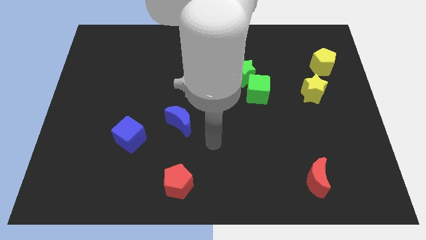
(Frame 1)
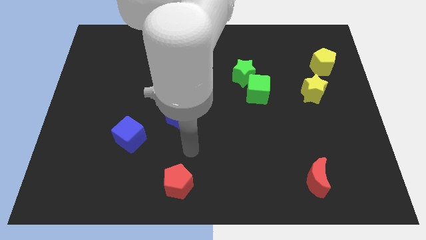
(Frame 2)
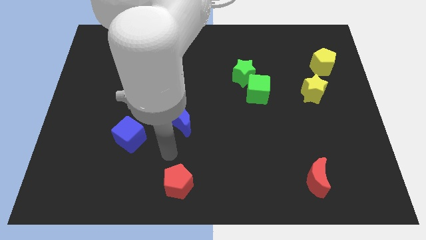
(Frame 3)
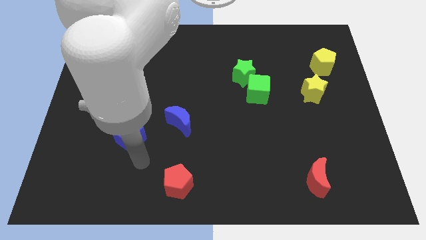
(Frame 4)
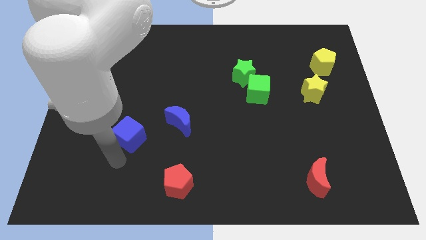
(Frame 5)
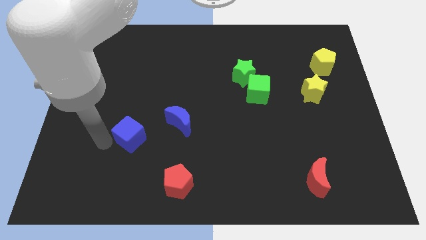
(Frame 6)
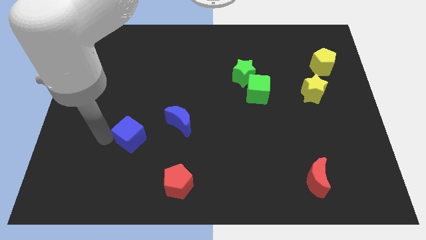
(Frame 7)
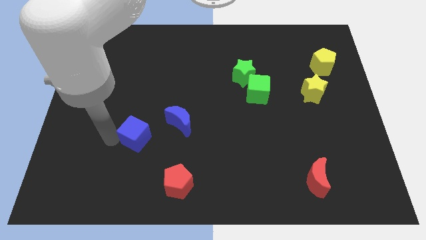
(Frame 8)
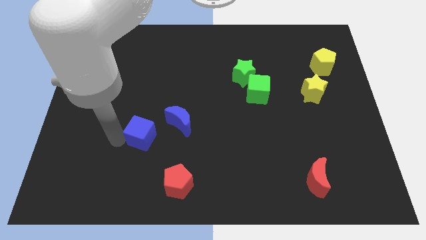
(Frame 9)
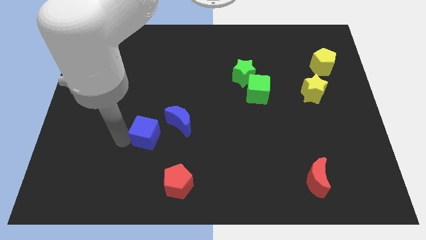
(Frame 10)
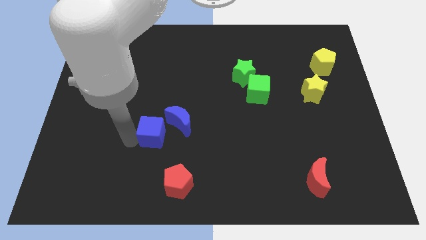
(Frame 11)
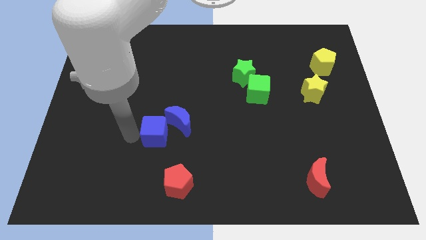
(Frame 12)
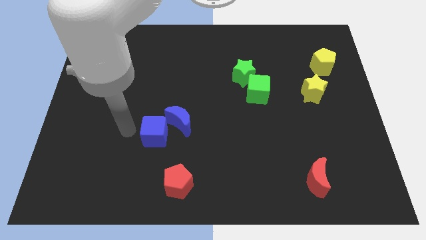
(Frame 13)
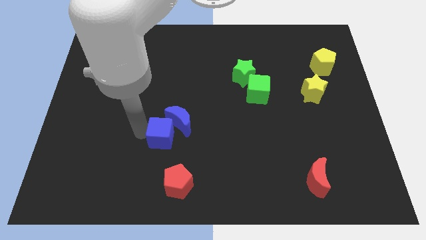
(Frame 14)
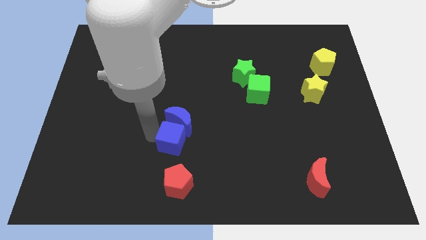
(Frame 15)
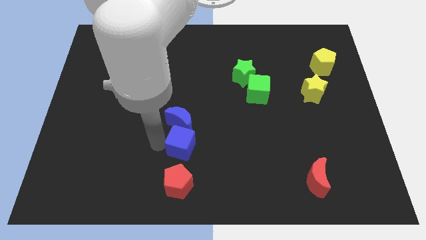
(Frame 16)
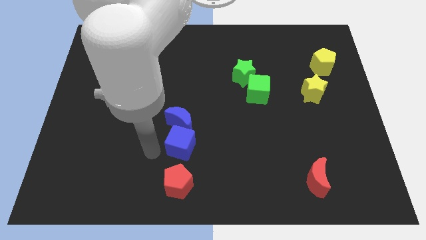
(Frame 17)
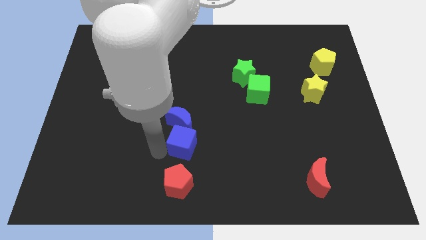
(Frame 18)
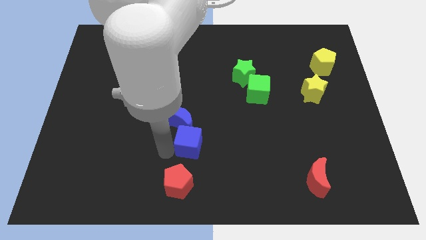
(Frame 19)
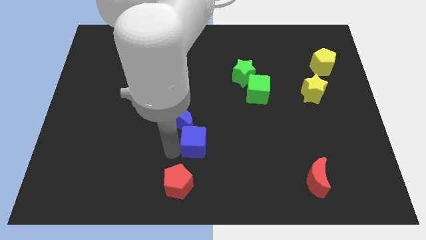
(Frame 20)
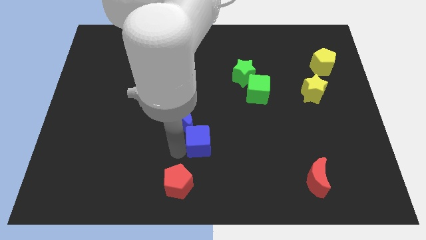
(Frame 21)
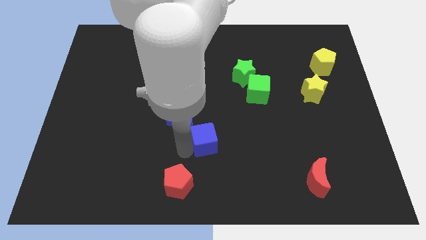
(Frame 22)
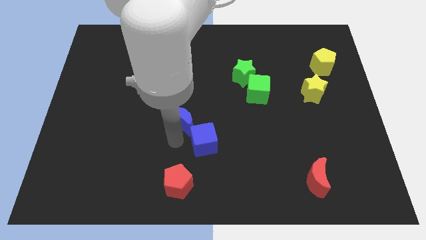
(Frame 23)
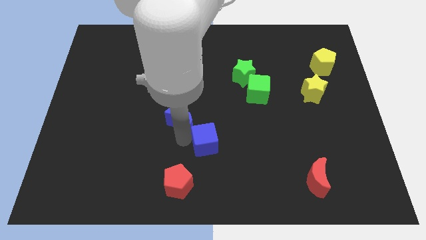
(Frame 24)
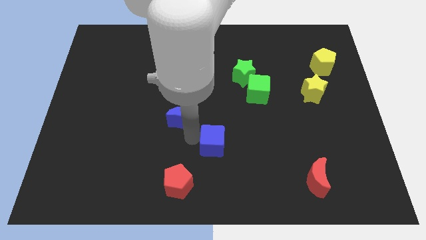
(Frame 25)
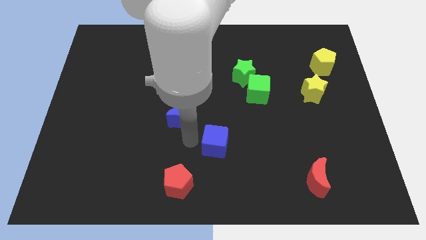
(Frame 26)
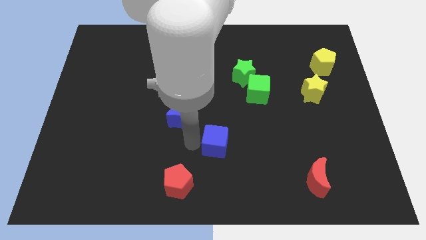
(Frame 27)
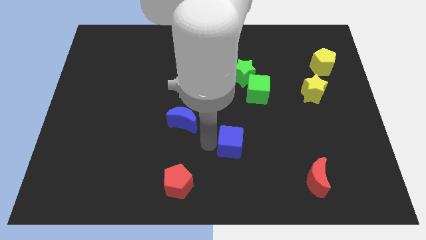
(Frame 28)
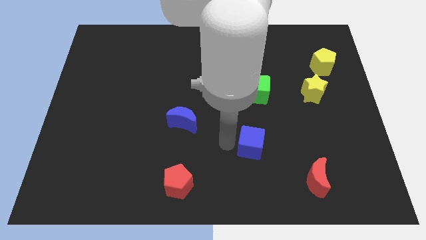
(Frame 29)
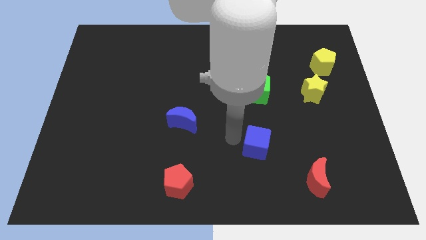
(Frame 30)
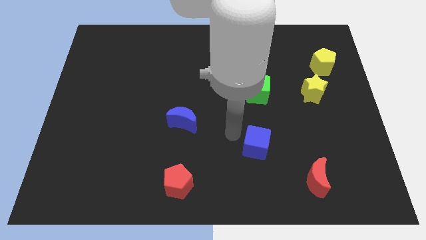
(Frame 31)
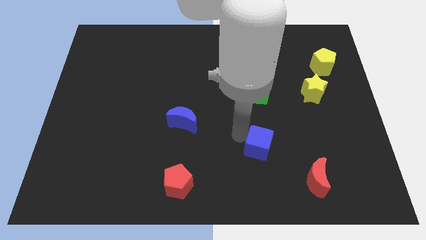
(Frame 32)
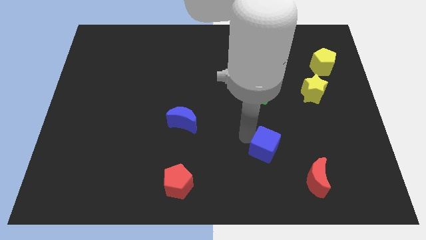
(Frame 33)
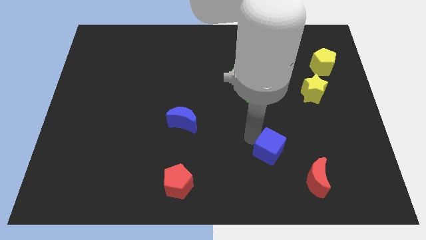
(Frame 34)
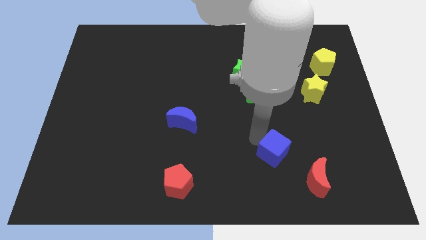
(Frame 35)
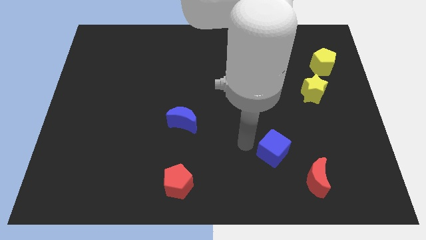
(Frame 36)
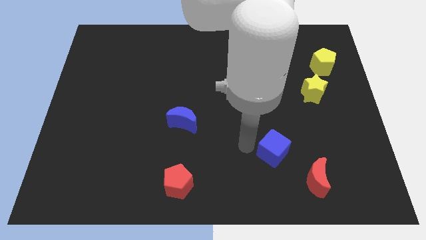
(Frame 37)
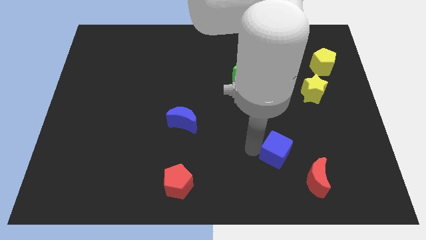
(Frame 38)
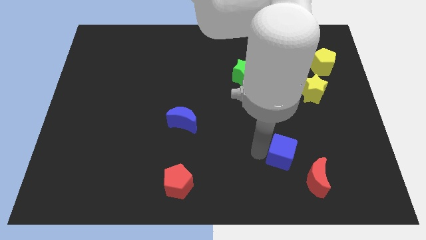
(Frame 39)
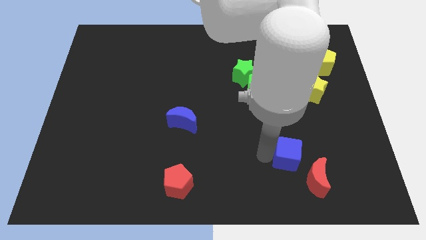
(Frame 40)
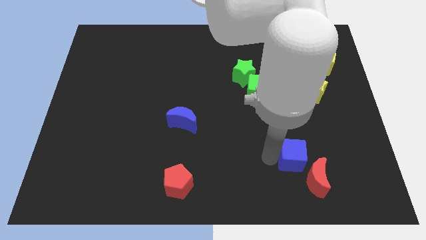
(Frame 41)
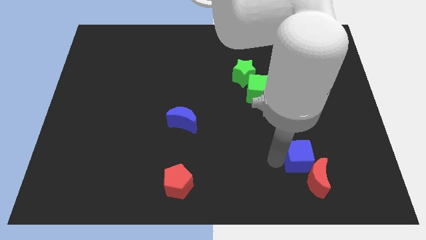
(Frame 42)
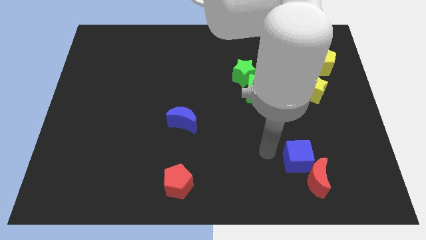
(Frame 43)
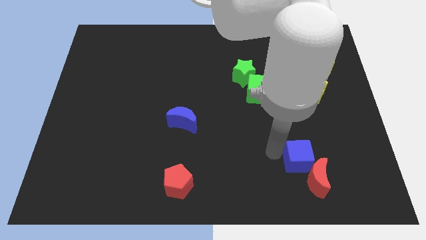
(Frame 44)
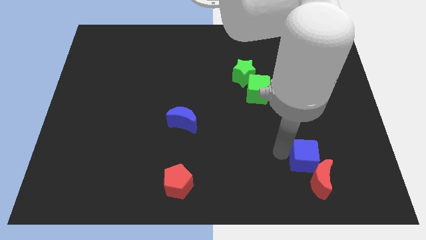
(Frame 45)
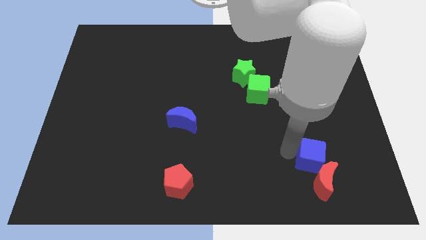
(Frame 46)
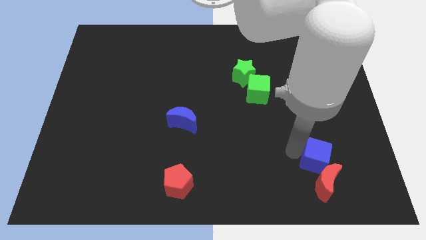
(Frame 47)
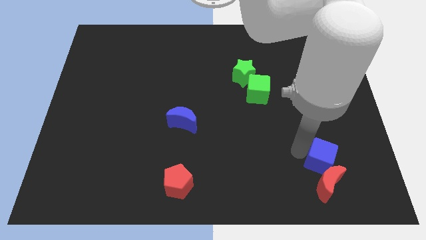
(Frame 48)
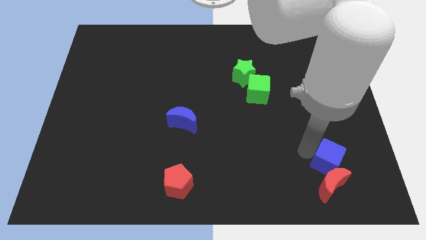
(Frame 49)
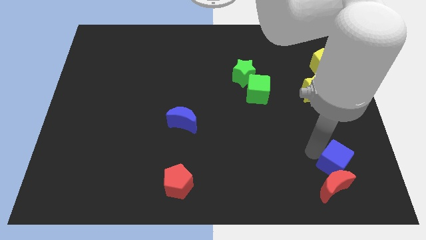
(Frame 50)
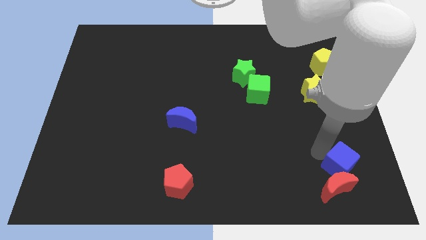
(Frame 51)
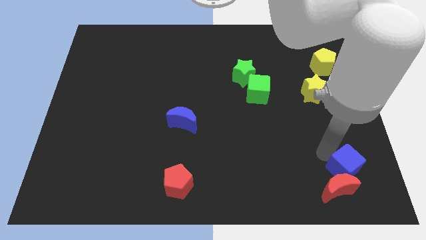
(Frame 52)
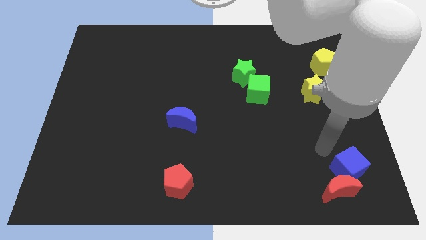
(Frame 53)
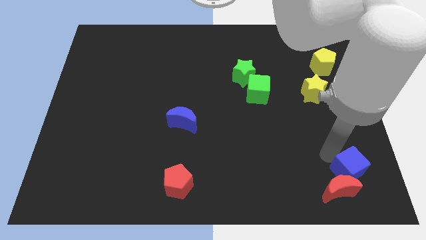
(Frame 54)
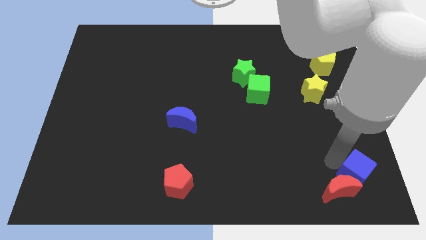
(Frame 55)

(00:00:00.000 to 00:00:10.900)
move the blue cube to the bottom right of the board

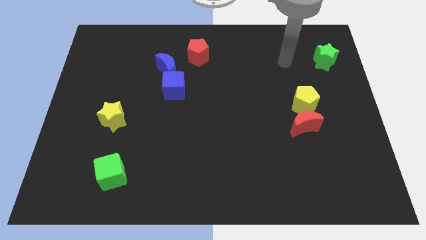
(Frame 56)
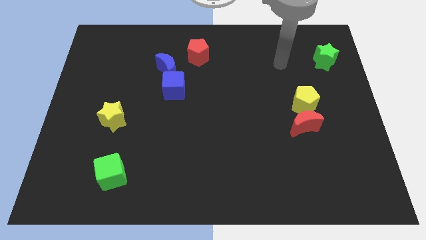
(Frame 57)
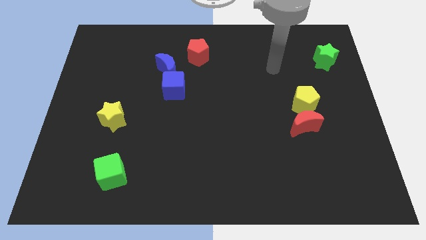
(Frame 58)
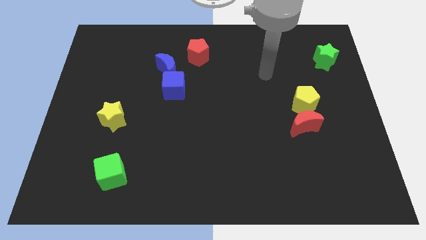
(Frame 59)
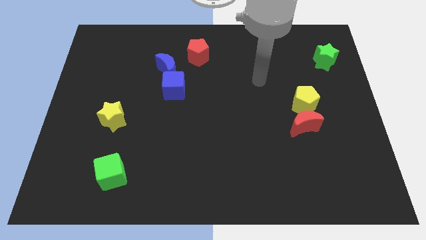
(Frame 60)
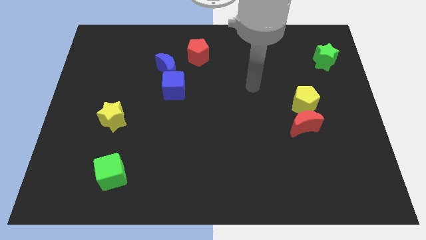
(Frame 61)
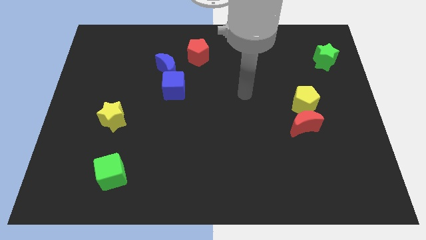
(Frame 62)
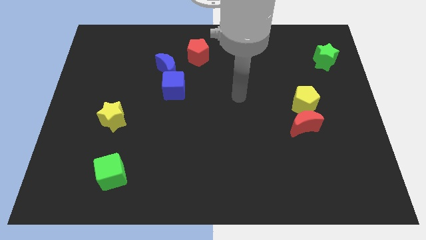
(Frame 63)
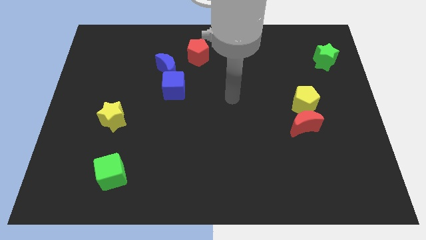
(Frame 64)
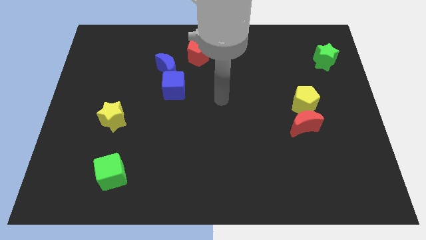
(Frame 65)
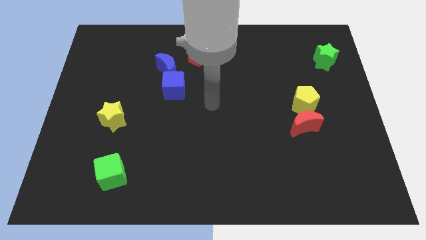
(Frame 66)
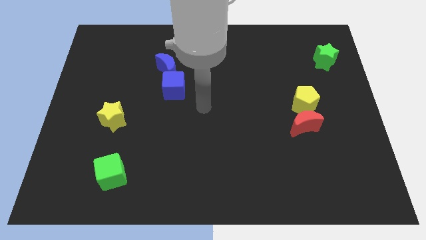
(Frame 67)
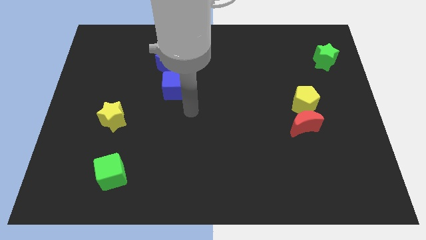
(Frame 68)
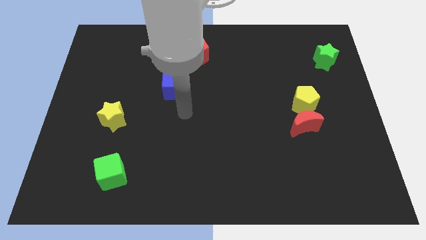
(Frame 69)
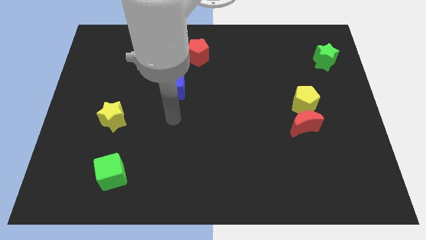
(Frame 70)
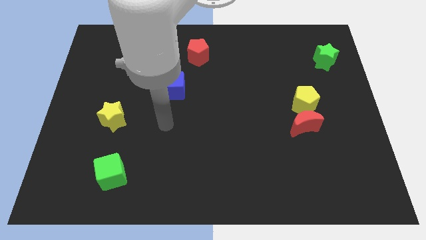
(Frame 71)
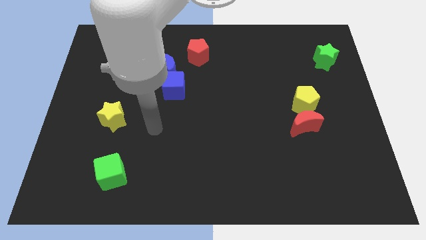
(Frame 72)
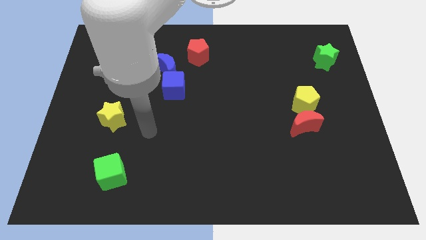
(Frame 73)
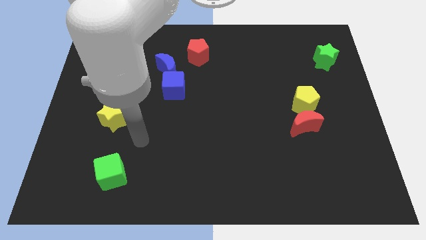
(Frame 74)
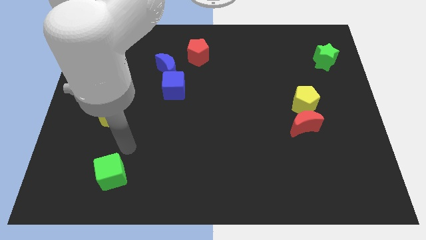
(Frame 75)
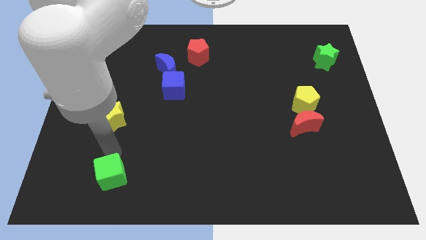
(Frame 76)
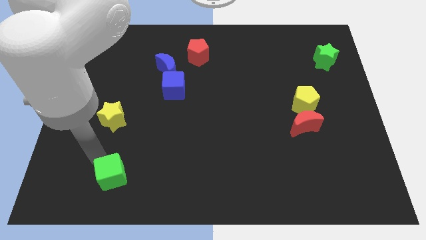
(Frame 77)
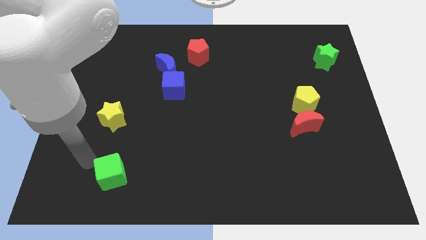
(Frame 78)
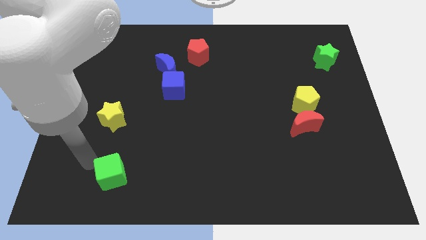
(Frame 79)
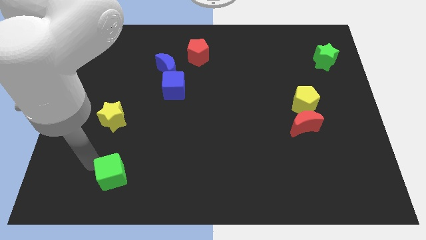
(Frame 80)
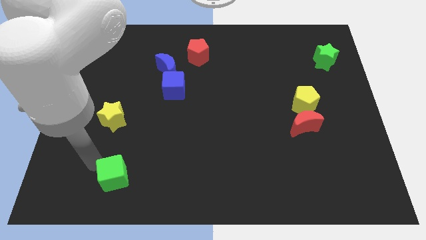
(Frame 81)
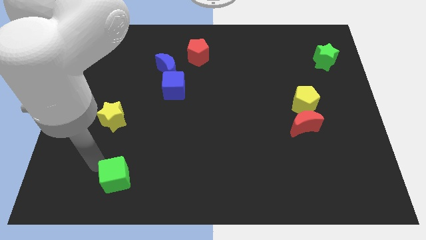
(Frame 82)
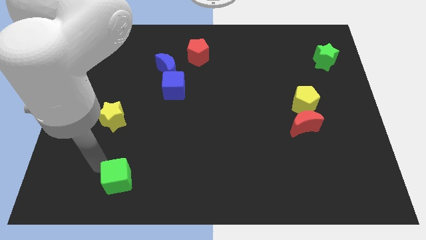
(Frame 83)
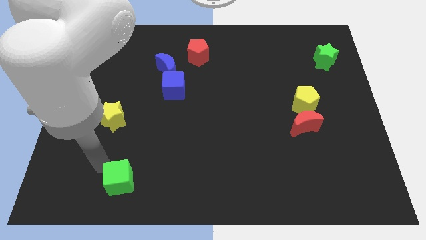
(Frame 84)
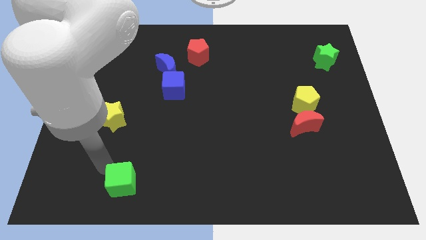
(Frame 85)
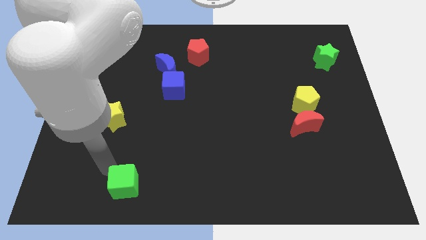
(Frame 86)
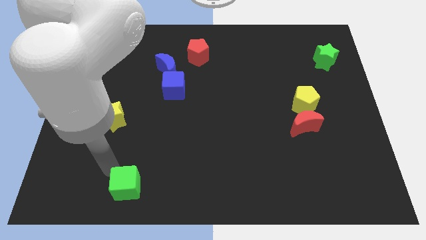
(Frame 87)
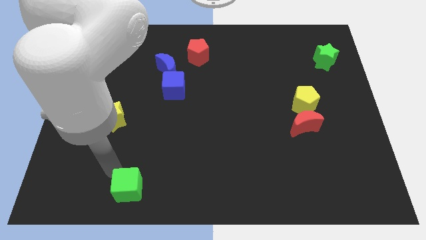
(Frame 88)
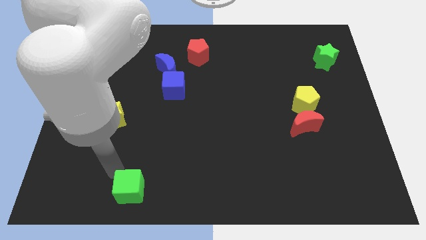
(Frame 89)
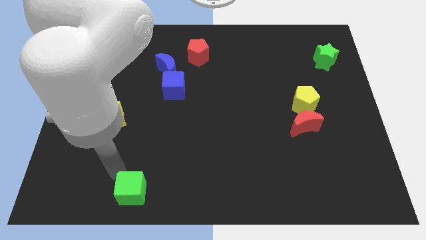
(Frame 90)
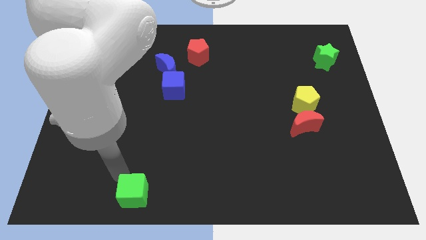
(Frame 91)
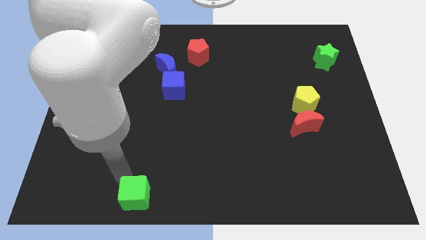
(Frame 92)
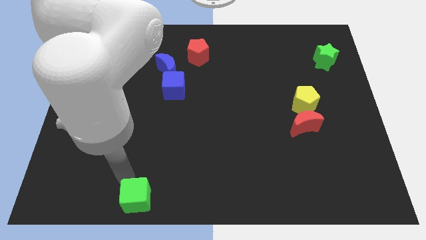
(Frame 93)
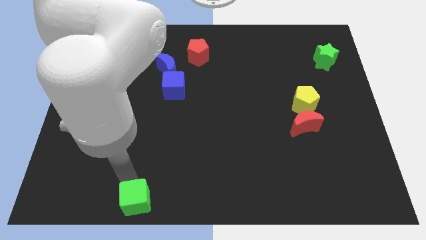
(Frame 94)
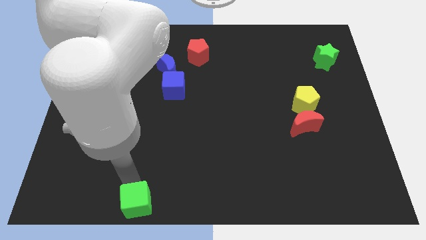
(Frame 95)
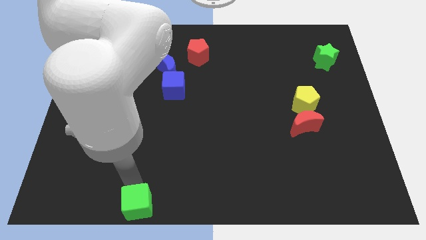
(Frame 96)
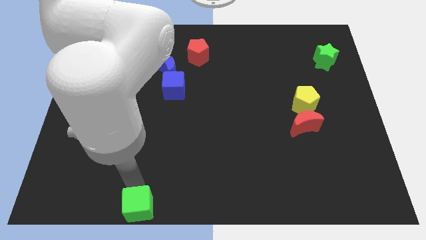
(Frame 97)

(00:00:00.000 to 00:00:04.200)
slide the green cube to the bottom
